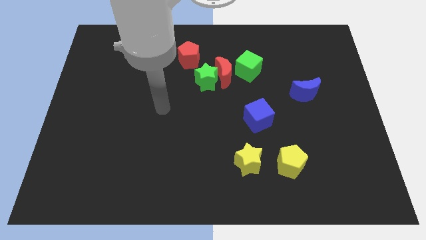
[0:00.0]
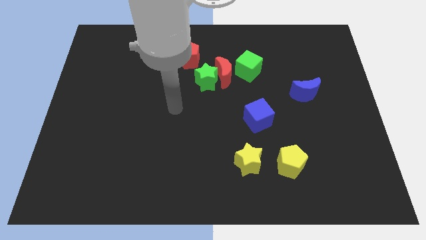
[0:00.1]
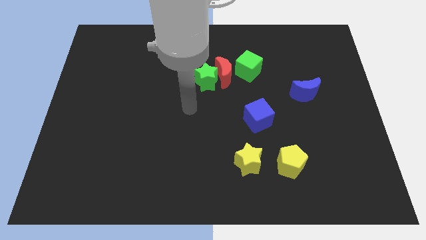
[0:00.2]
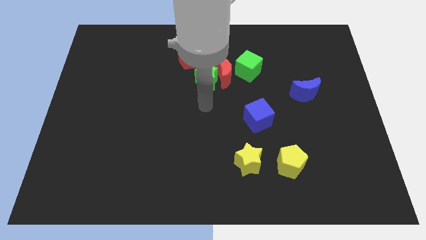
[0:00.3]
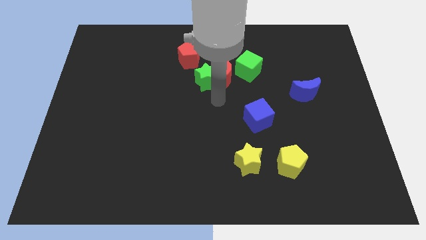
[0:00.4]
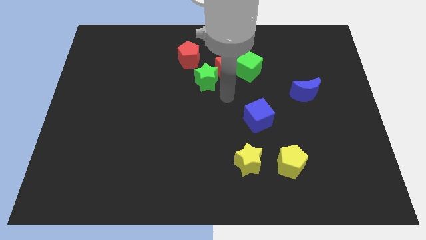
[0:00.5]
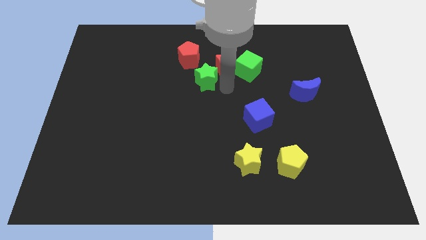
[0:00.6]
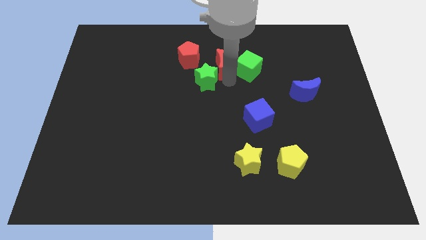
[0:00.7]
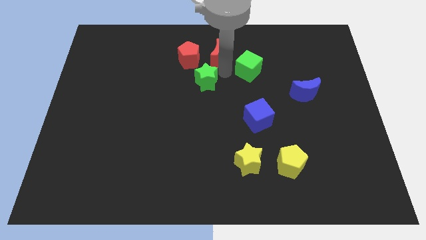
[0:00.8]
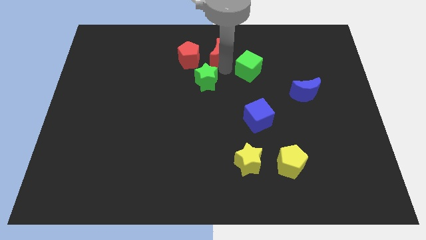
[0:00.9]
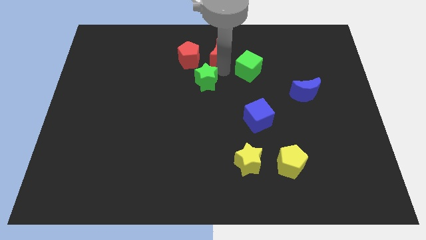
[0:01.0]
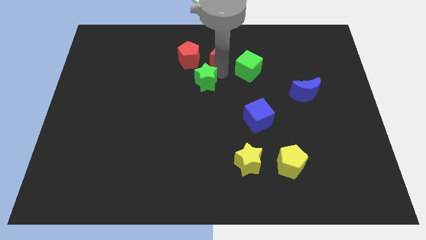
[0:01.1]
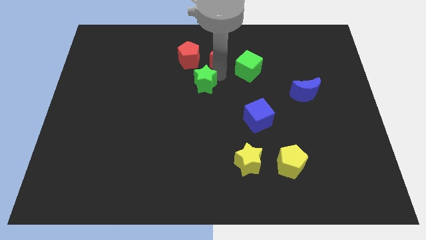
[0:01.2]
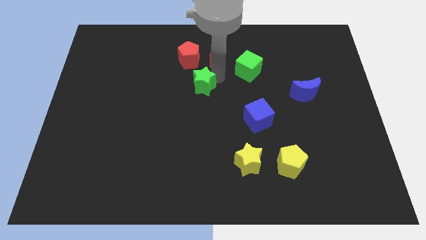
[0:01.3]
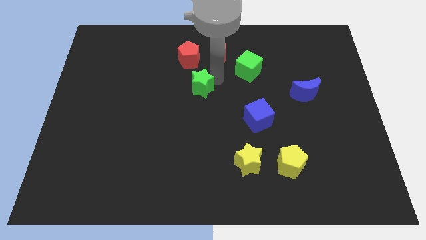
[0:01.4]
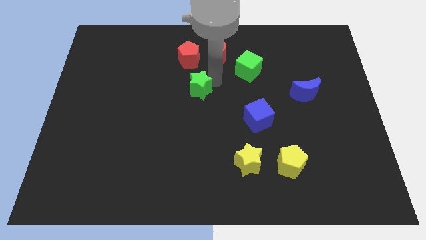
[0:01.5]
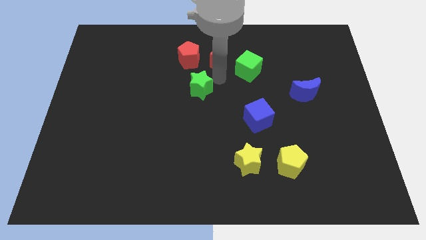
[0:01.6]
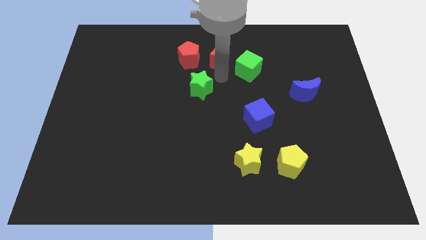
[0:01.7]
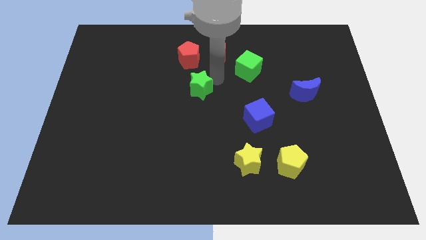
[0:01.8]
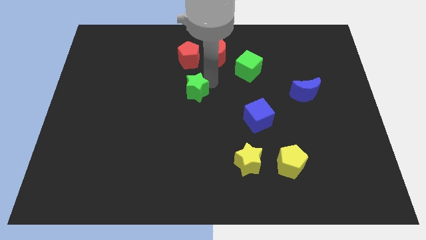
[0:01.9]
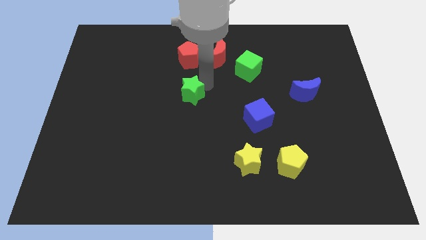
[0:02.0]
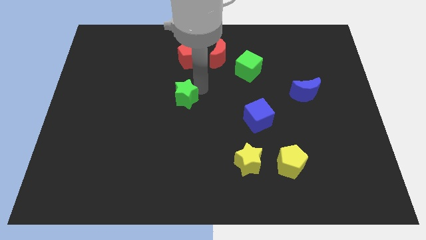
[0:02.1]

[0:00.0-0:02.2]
move the green star somewhat downwards and to the left diagonally

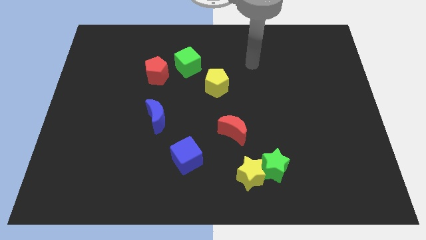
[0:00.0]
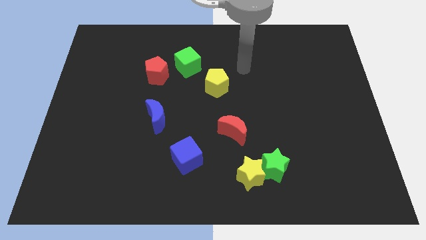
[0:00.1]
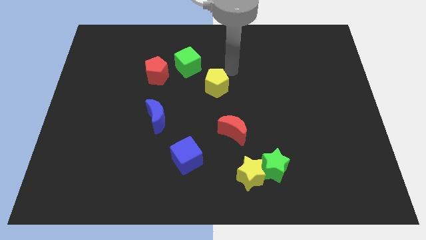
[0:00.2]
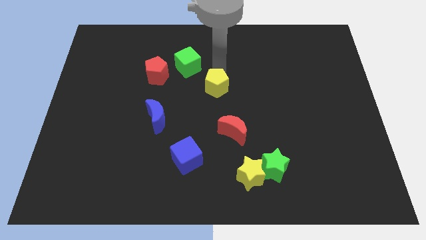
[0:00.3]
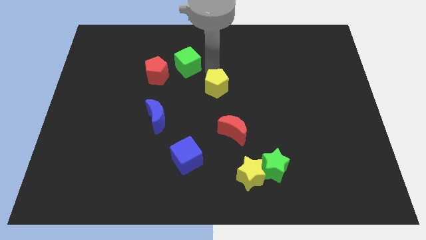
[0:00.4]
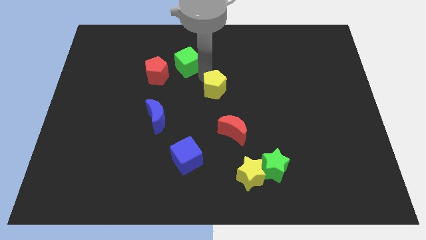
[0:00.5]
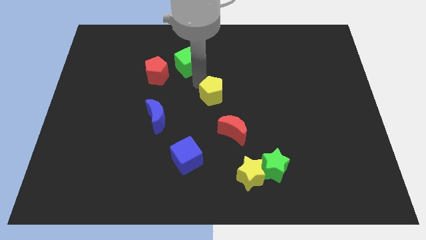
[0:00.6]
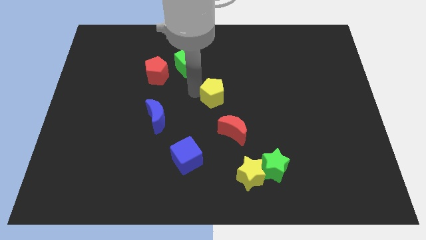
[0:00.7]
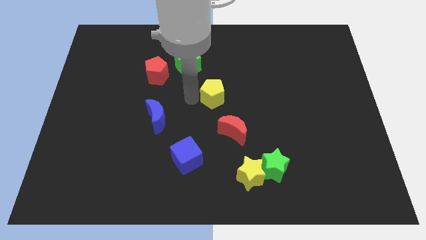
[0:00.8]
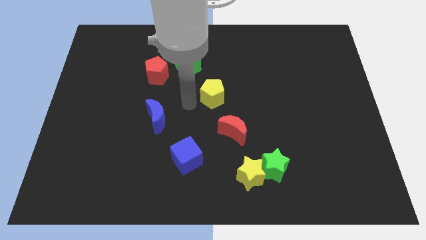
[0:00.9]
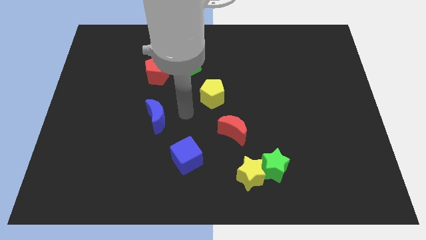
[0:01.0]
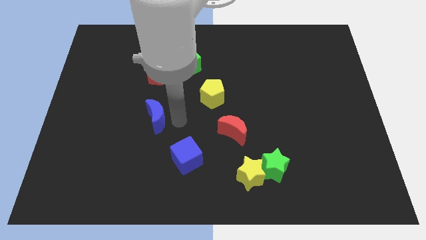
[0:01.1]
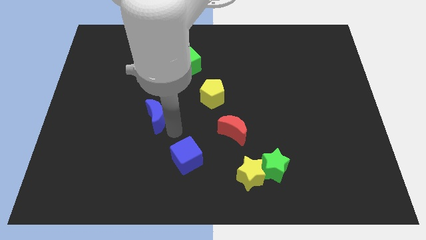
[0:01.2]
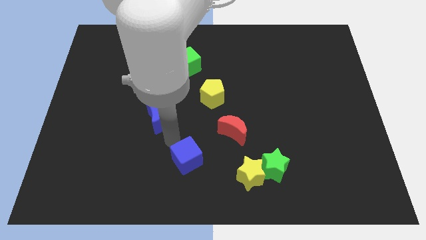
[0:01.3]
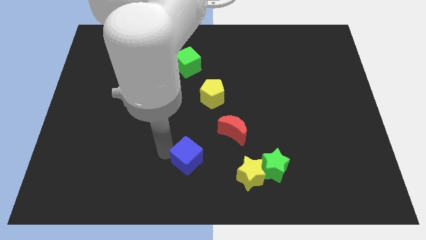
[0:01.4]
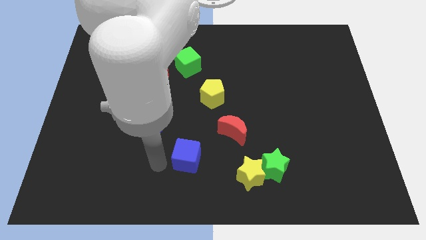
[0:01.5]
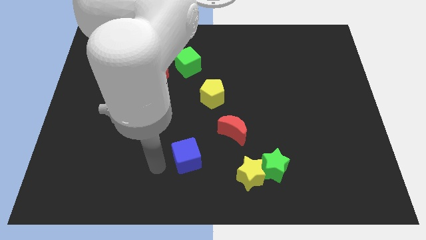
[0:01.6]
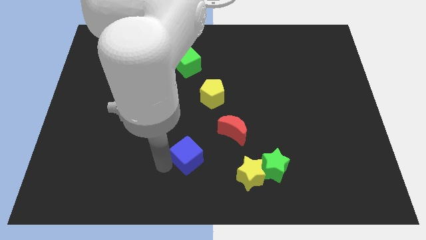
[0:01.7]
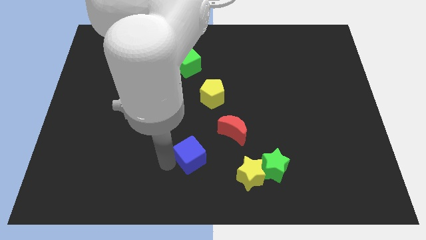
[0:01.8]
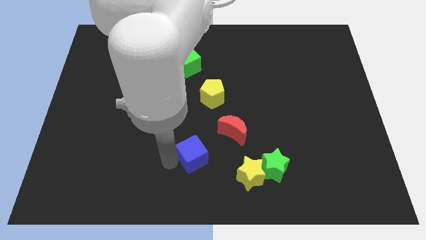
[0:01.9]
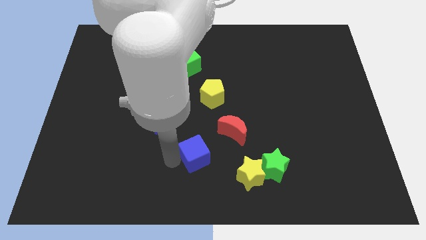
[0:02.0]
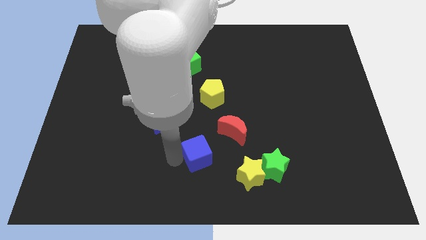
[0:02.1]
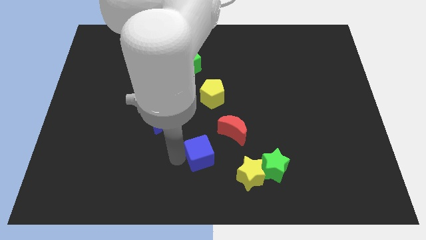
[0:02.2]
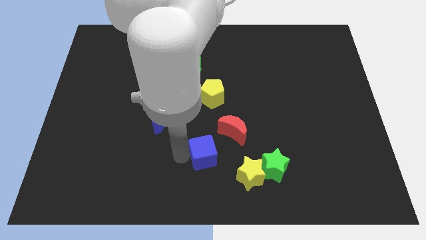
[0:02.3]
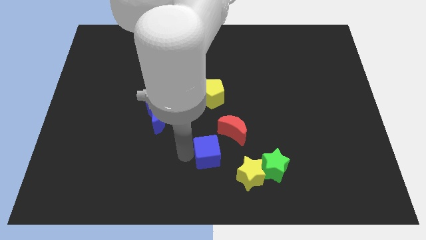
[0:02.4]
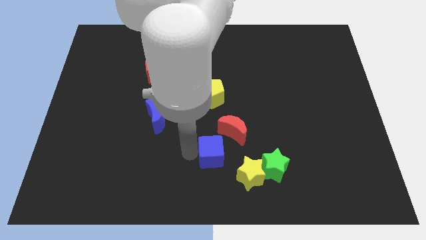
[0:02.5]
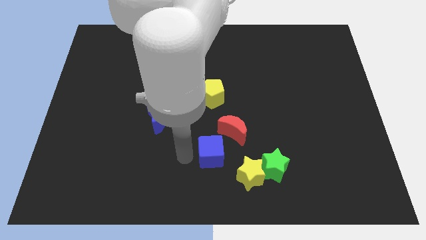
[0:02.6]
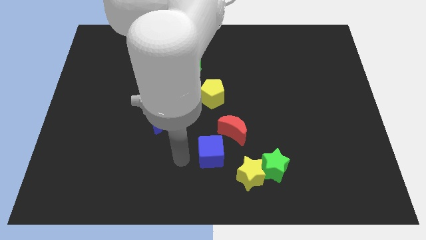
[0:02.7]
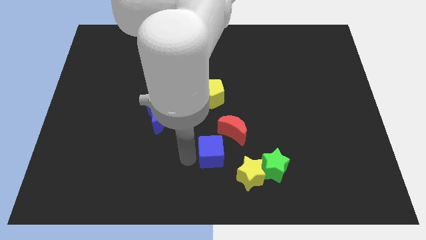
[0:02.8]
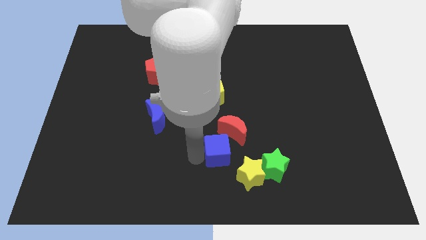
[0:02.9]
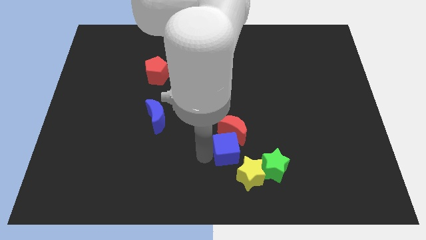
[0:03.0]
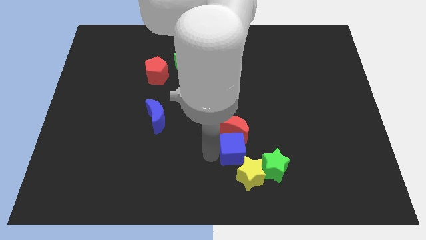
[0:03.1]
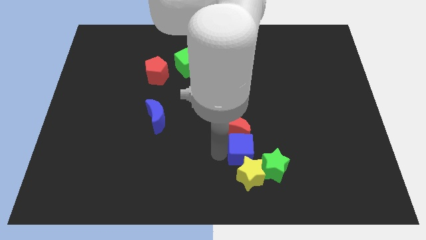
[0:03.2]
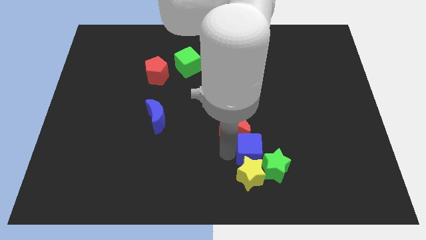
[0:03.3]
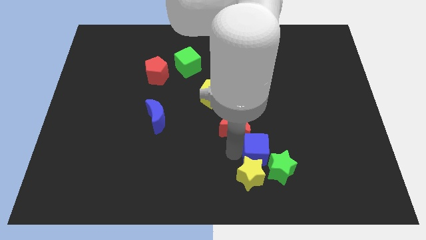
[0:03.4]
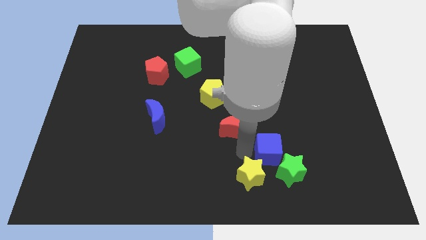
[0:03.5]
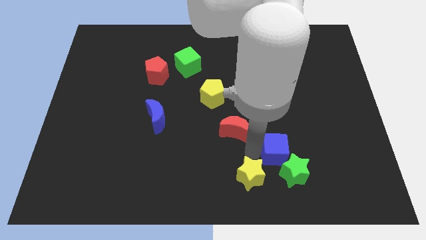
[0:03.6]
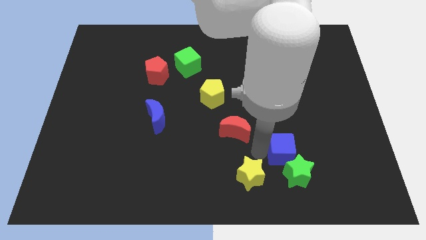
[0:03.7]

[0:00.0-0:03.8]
slide the blue cube to the right

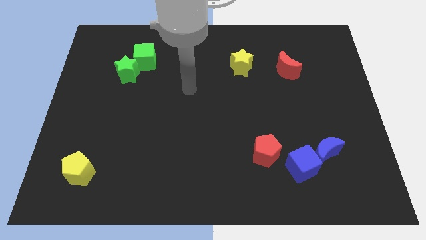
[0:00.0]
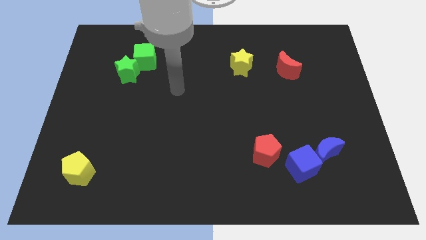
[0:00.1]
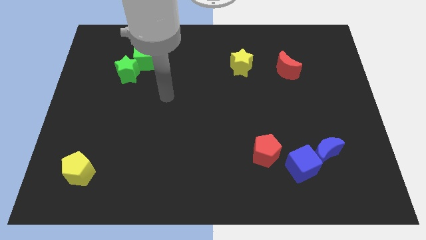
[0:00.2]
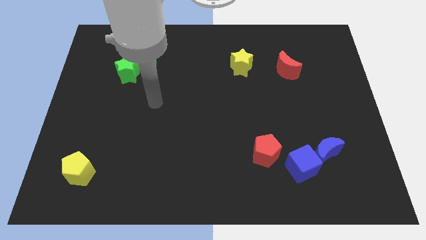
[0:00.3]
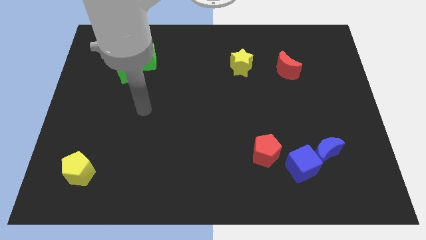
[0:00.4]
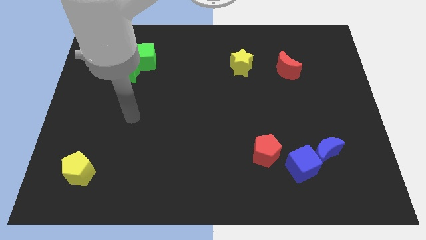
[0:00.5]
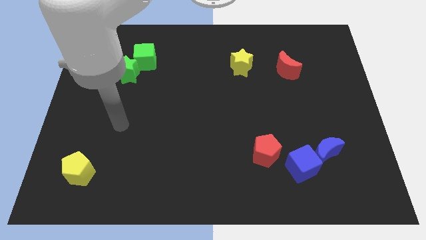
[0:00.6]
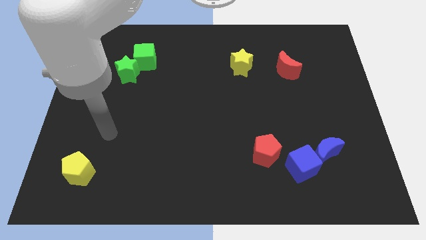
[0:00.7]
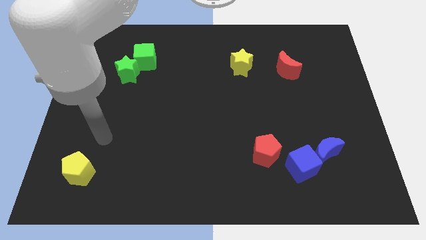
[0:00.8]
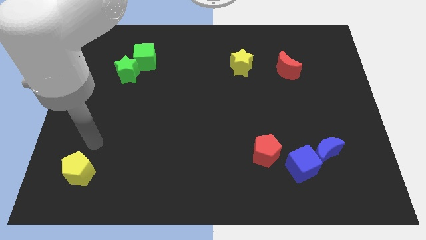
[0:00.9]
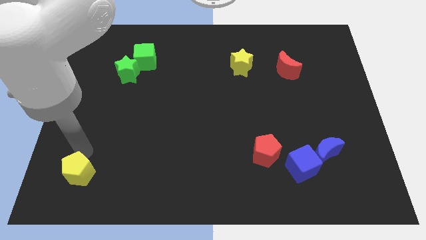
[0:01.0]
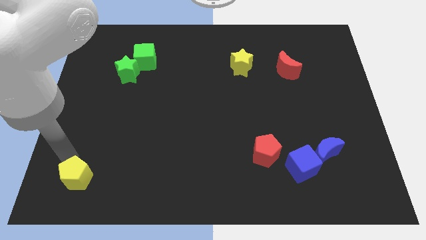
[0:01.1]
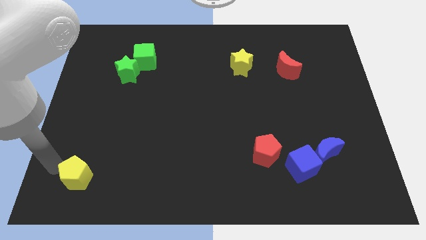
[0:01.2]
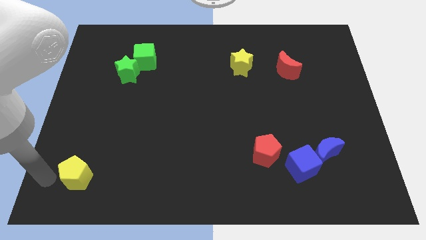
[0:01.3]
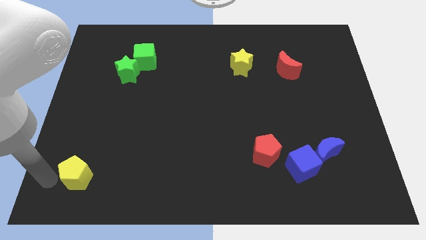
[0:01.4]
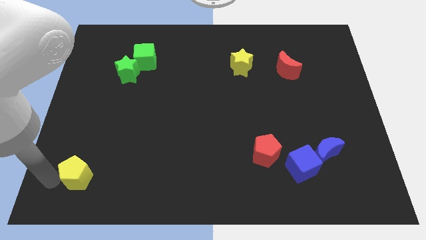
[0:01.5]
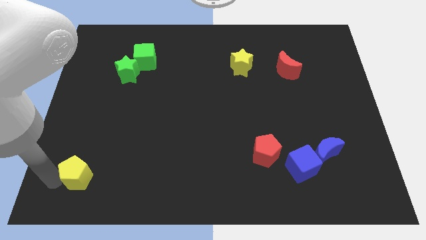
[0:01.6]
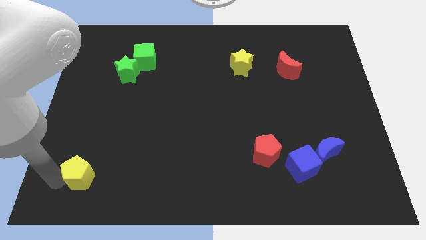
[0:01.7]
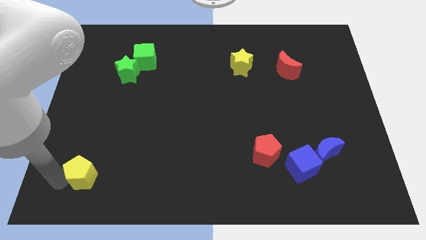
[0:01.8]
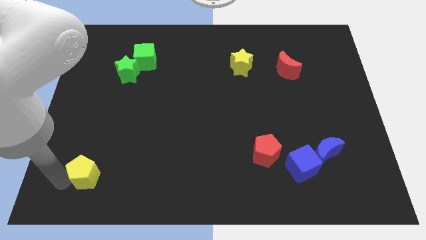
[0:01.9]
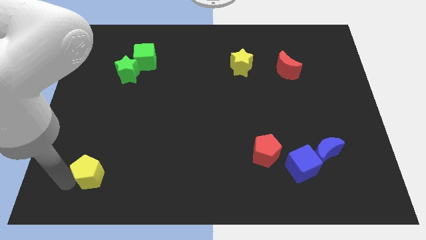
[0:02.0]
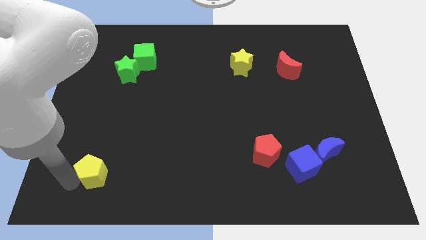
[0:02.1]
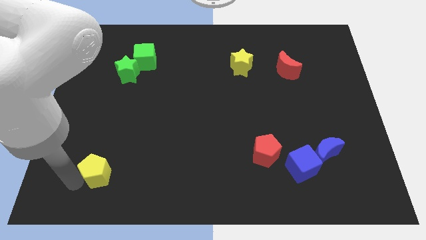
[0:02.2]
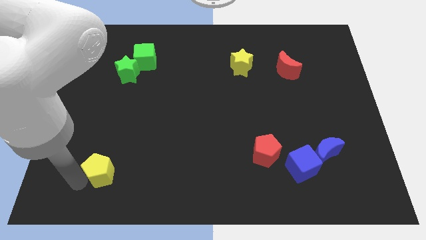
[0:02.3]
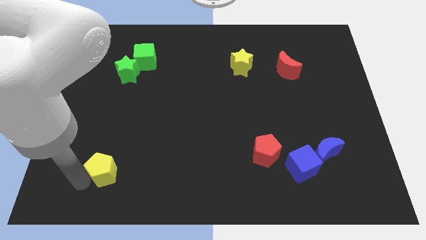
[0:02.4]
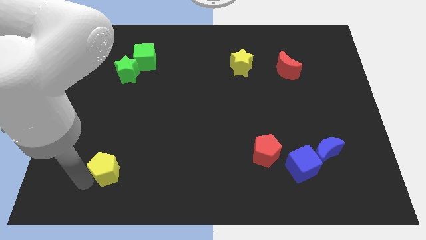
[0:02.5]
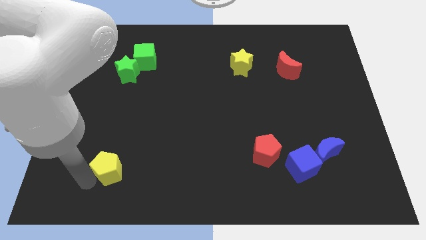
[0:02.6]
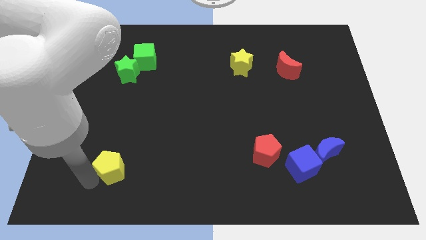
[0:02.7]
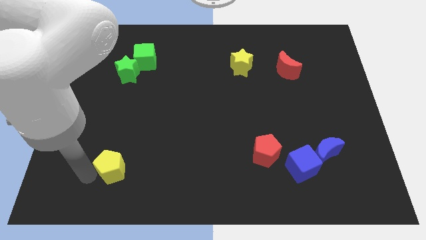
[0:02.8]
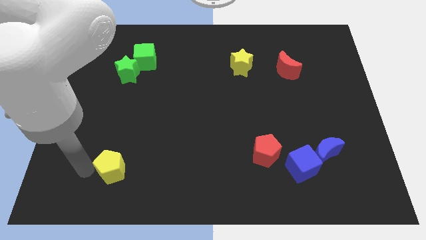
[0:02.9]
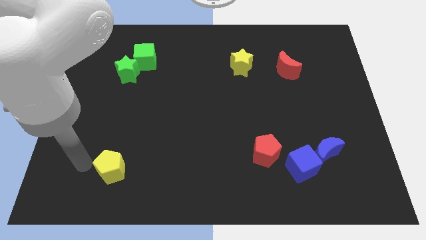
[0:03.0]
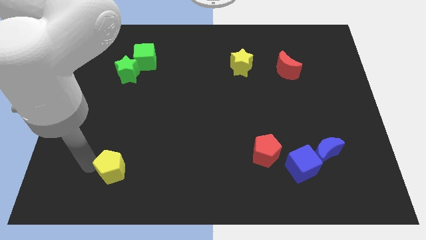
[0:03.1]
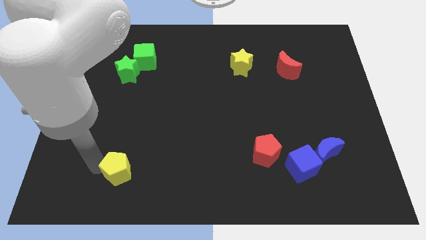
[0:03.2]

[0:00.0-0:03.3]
push the yellow pentagon slightly right
